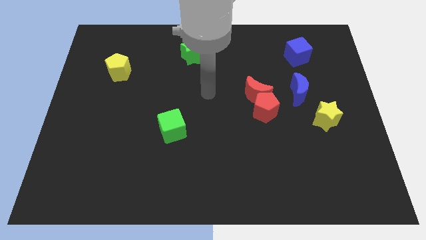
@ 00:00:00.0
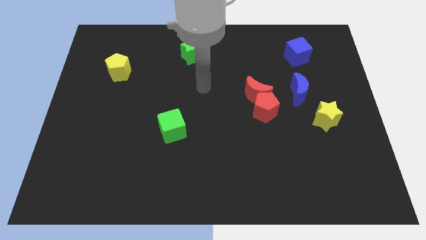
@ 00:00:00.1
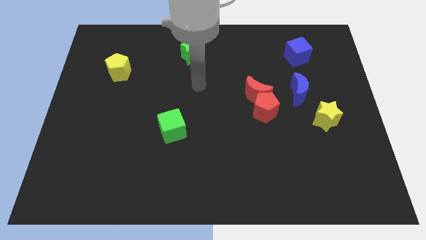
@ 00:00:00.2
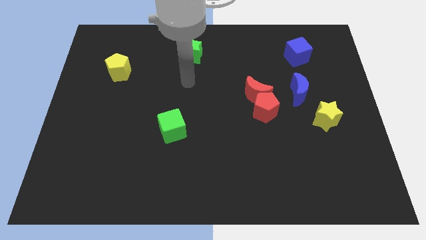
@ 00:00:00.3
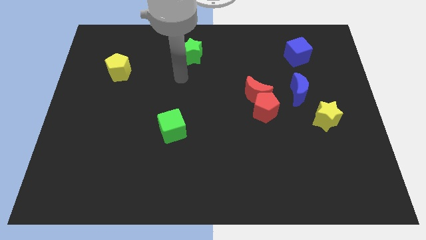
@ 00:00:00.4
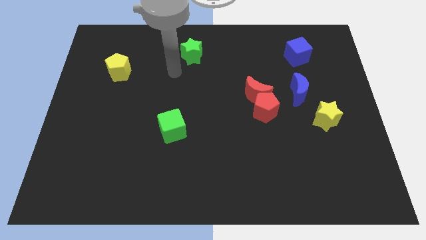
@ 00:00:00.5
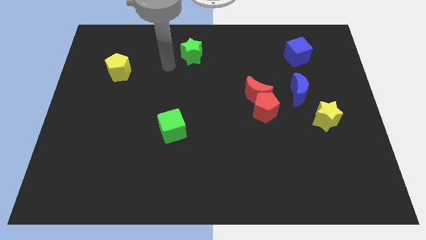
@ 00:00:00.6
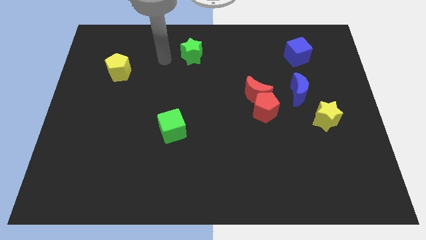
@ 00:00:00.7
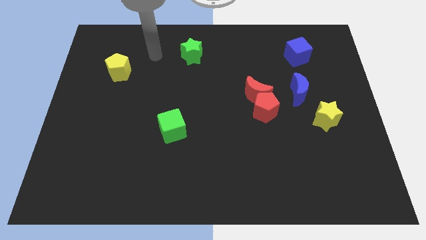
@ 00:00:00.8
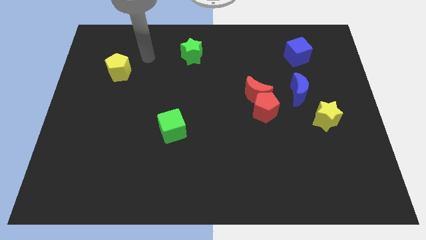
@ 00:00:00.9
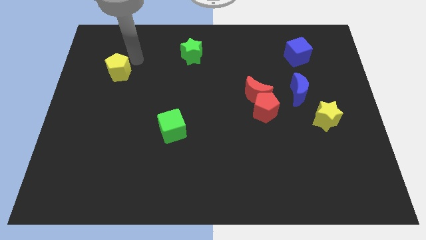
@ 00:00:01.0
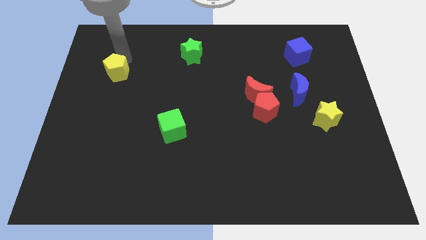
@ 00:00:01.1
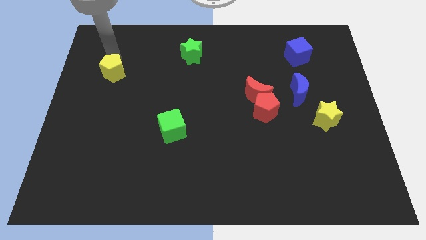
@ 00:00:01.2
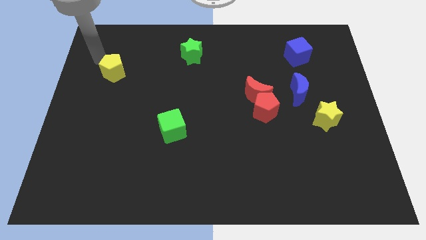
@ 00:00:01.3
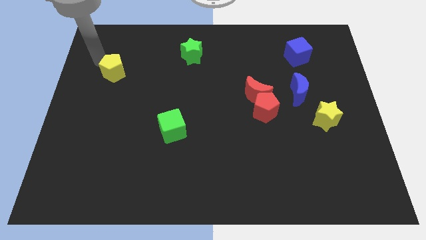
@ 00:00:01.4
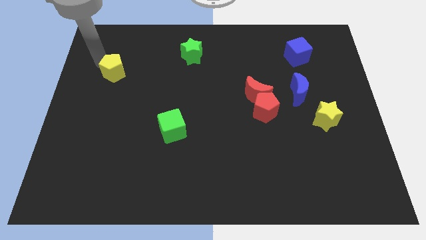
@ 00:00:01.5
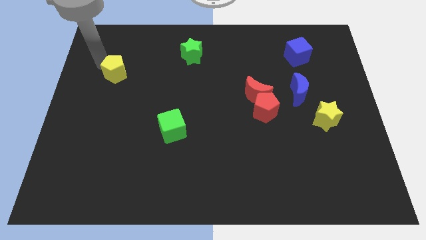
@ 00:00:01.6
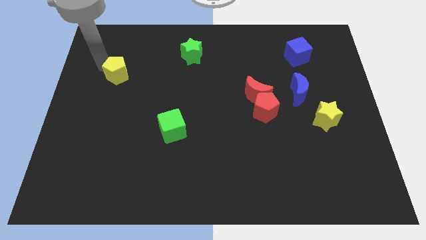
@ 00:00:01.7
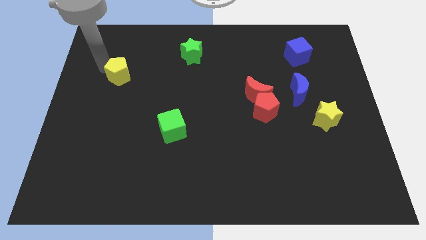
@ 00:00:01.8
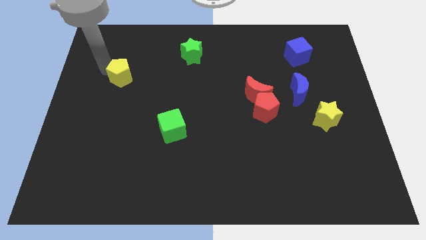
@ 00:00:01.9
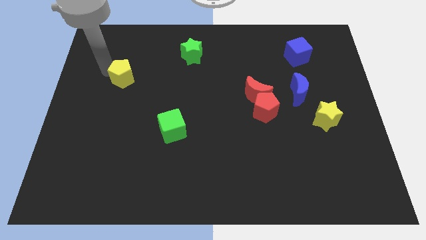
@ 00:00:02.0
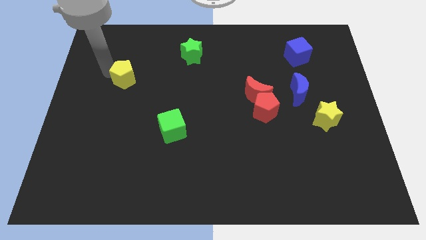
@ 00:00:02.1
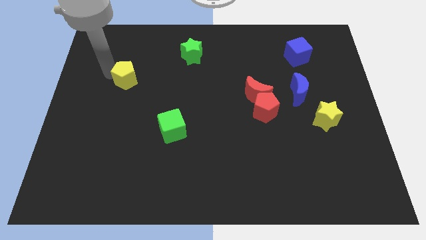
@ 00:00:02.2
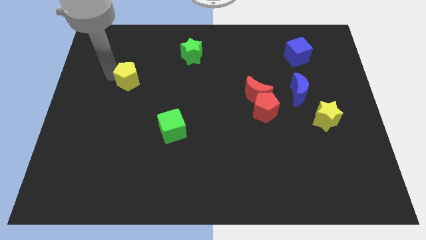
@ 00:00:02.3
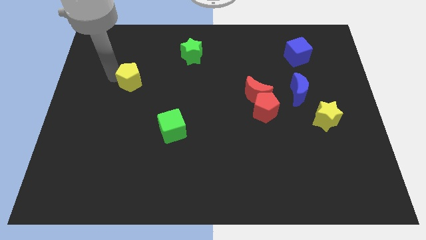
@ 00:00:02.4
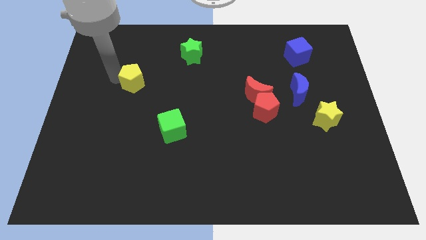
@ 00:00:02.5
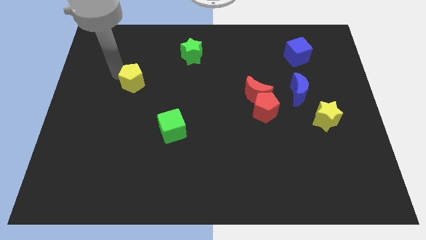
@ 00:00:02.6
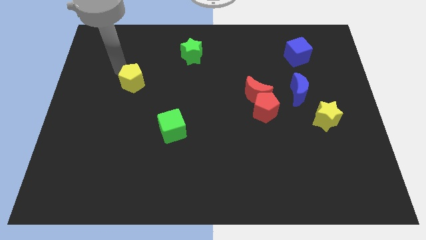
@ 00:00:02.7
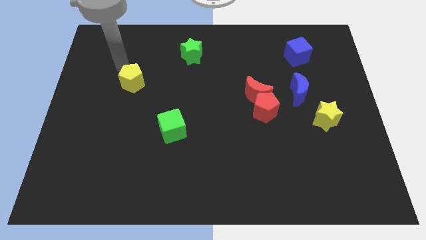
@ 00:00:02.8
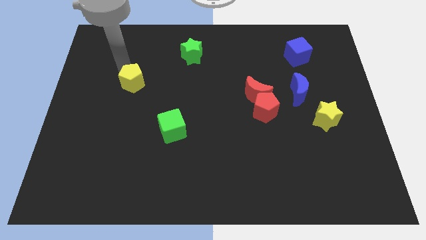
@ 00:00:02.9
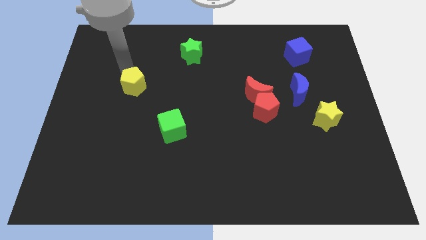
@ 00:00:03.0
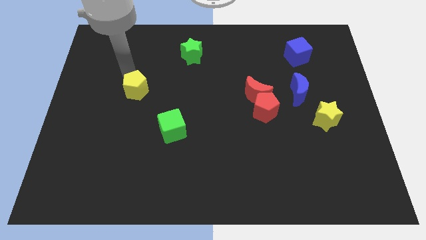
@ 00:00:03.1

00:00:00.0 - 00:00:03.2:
push the yellow pentagon diagonally downwards and to the right a little bit

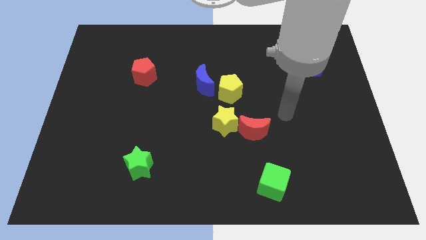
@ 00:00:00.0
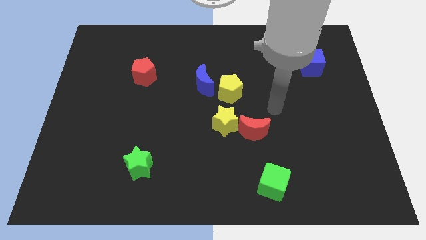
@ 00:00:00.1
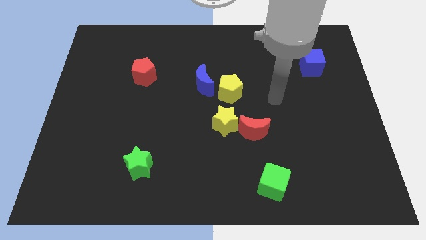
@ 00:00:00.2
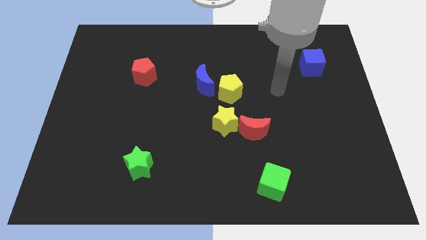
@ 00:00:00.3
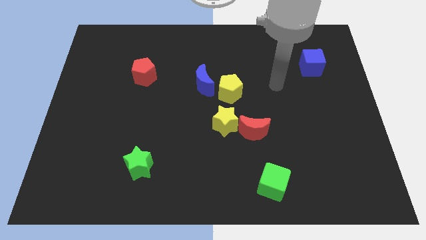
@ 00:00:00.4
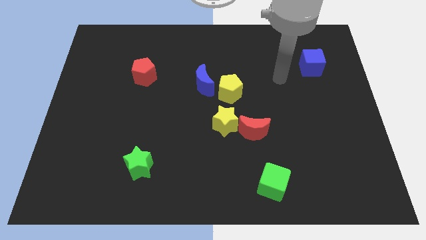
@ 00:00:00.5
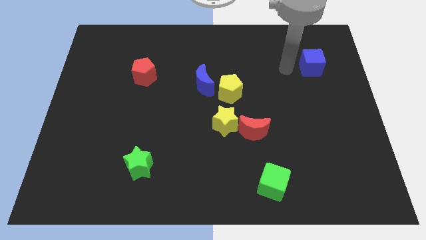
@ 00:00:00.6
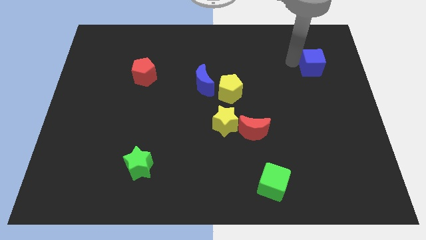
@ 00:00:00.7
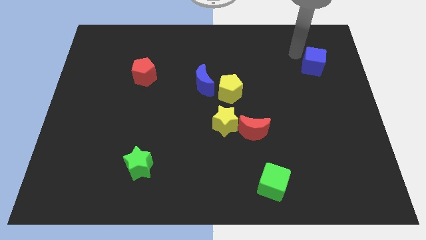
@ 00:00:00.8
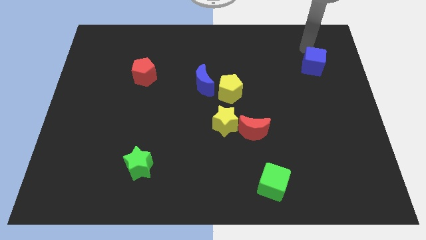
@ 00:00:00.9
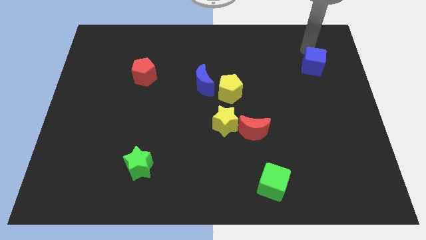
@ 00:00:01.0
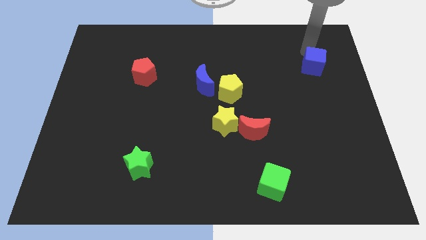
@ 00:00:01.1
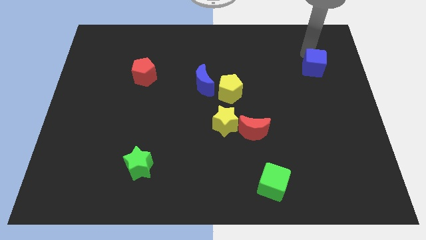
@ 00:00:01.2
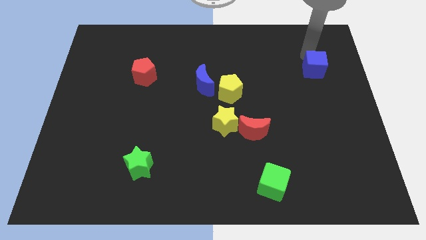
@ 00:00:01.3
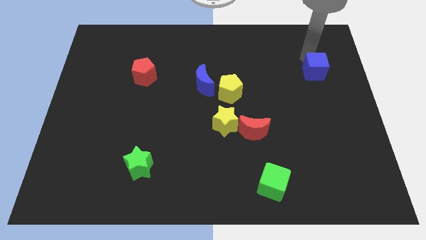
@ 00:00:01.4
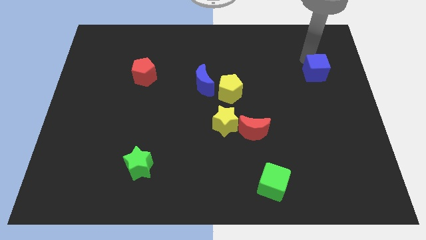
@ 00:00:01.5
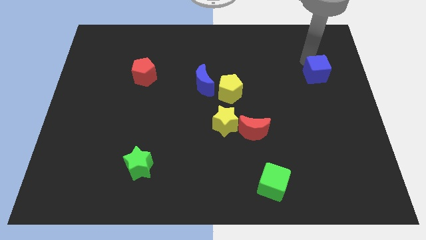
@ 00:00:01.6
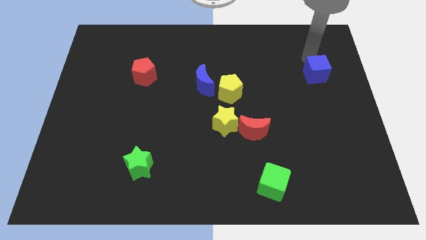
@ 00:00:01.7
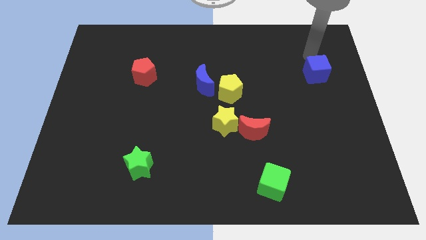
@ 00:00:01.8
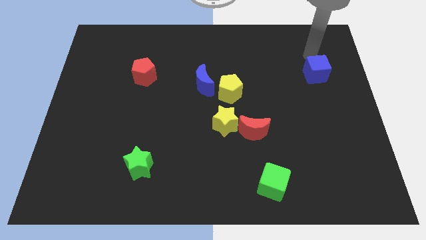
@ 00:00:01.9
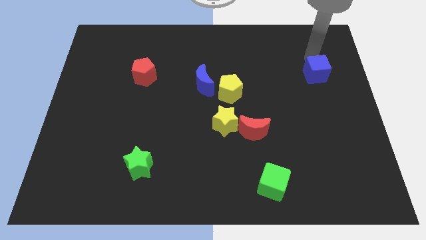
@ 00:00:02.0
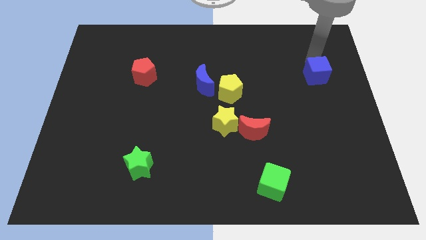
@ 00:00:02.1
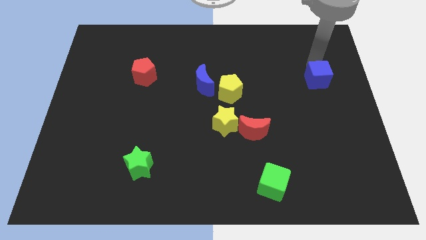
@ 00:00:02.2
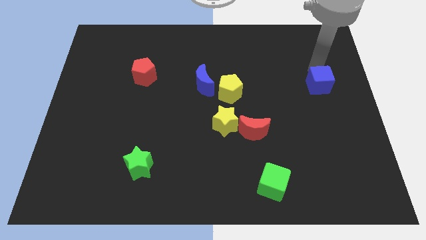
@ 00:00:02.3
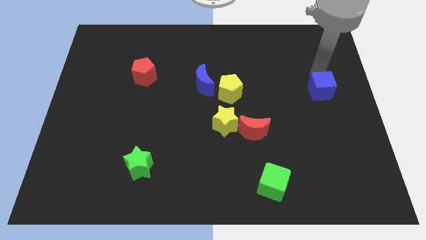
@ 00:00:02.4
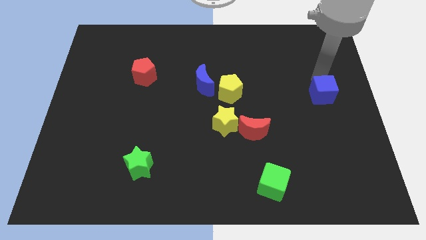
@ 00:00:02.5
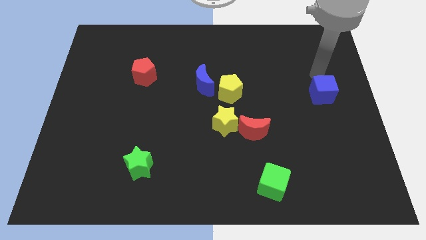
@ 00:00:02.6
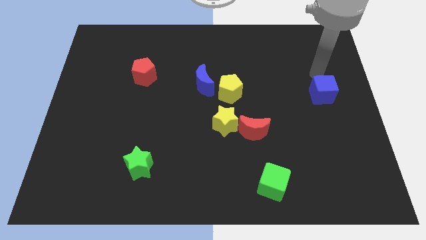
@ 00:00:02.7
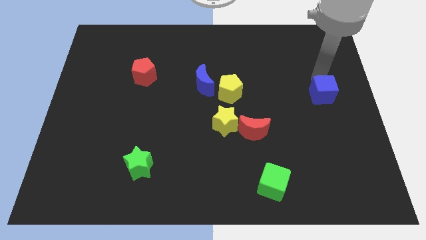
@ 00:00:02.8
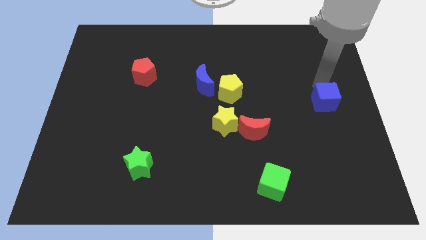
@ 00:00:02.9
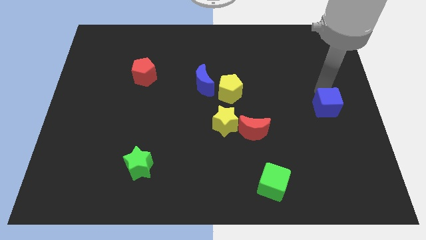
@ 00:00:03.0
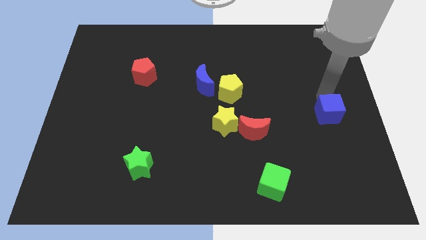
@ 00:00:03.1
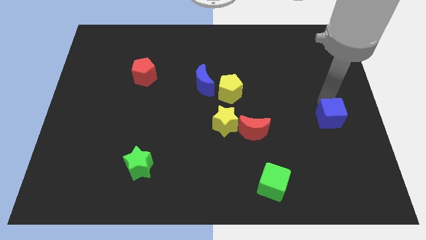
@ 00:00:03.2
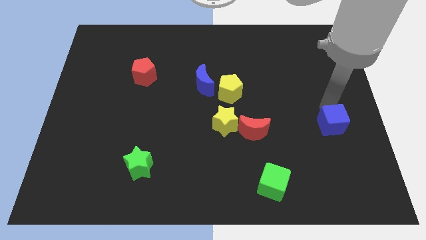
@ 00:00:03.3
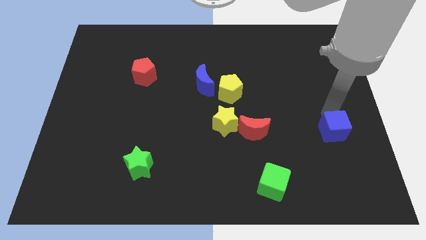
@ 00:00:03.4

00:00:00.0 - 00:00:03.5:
slide the blue cube down

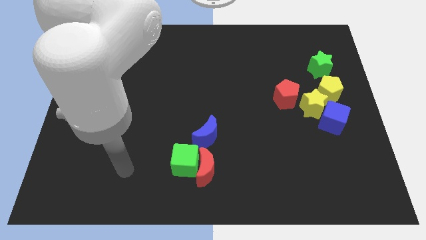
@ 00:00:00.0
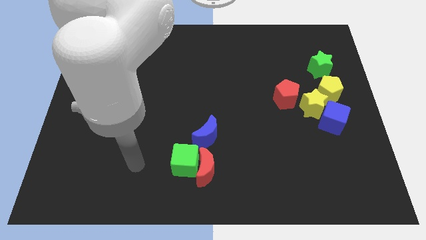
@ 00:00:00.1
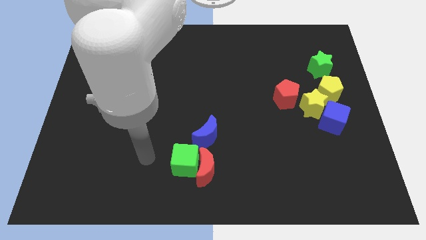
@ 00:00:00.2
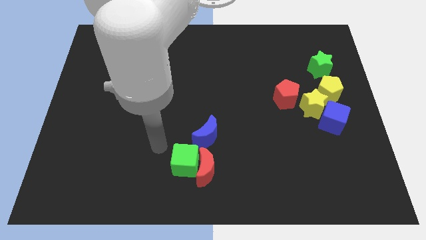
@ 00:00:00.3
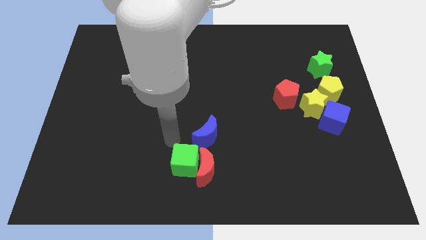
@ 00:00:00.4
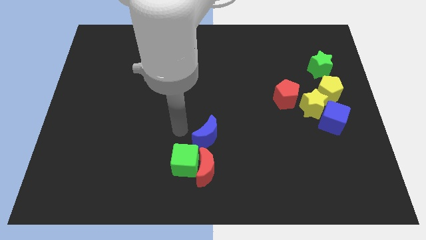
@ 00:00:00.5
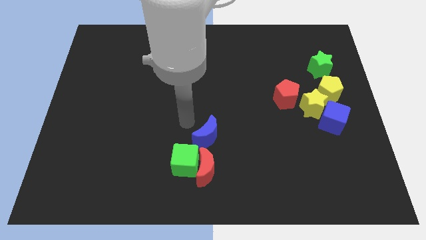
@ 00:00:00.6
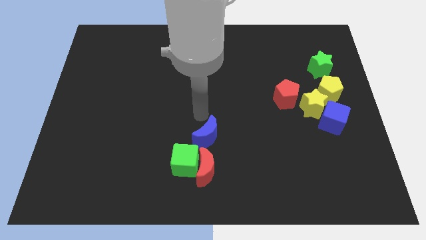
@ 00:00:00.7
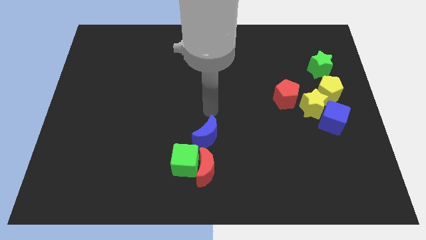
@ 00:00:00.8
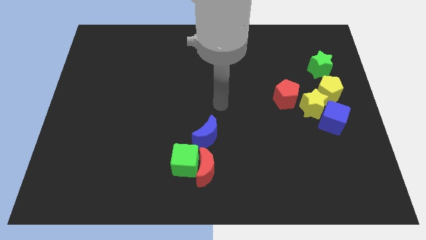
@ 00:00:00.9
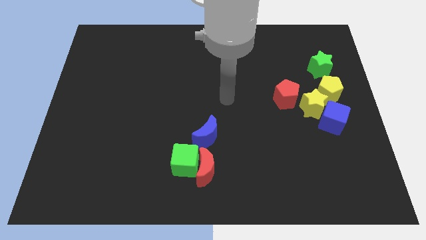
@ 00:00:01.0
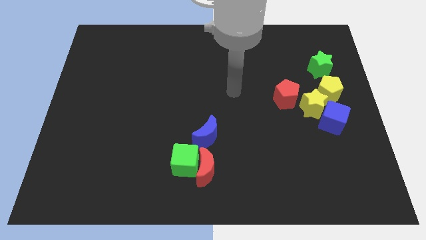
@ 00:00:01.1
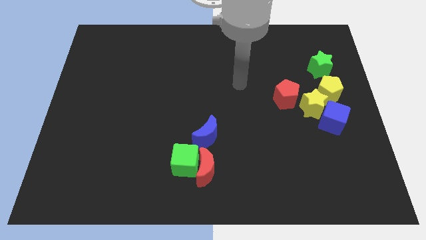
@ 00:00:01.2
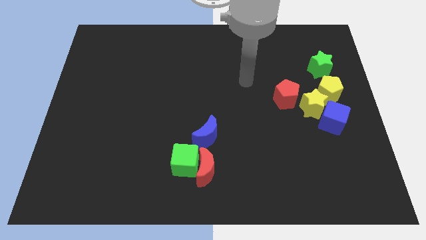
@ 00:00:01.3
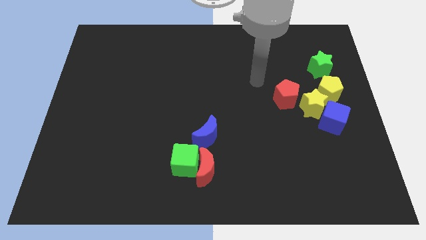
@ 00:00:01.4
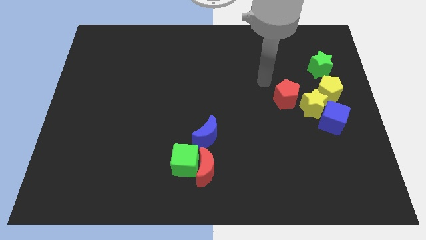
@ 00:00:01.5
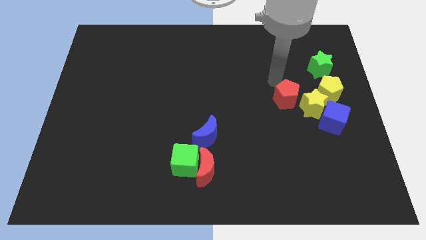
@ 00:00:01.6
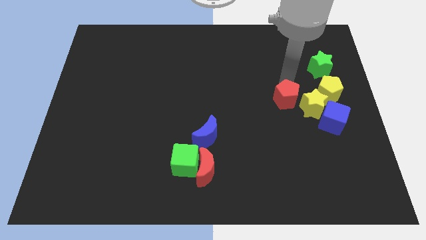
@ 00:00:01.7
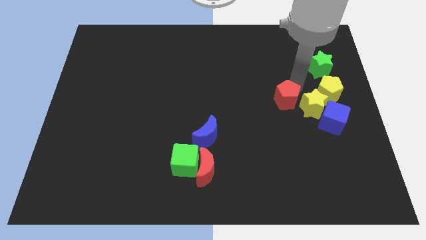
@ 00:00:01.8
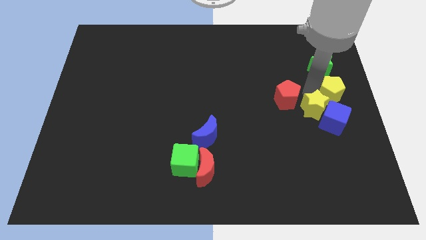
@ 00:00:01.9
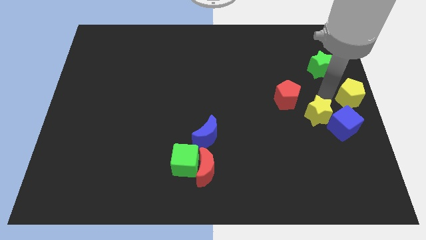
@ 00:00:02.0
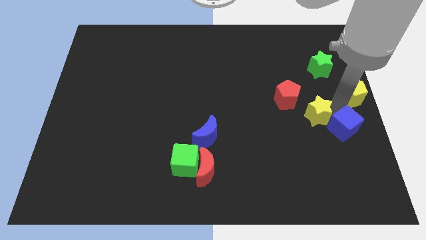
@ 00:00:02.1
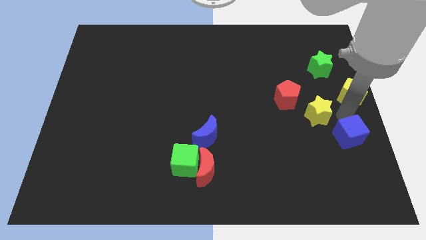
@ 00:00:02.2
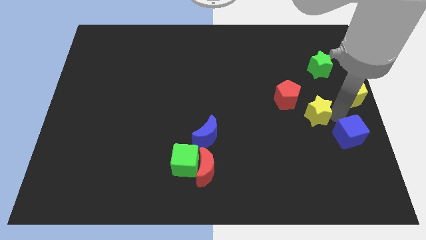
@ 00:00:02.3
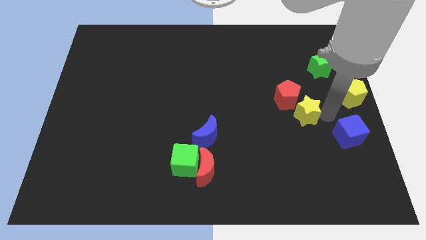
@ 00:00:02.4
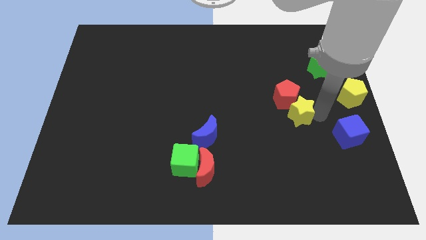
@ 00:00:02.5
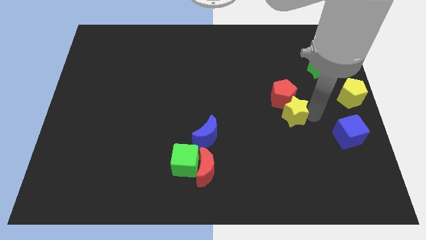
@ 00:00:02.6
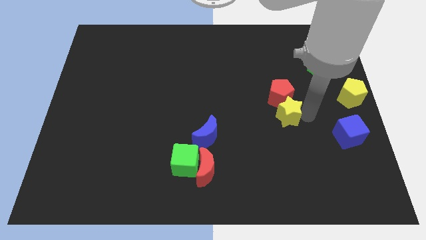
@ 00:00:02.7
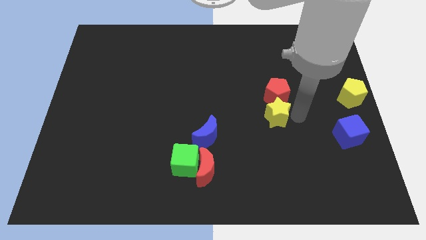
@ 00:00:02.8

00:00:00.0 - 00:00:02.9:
push the yellow star left a bit
